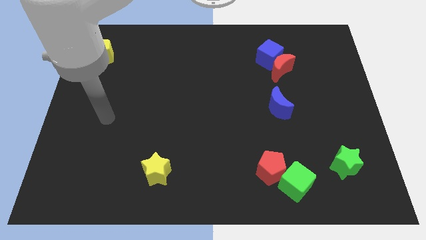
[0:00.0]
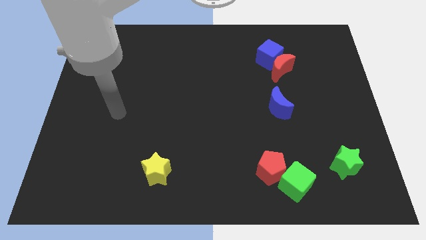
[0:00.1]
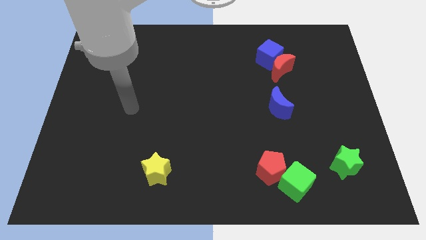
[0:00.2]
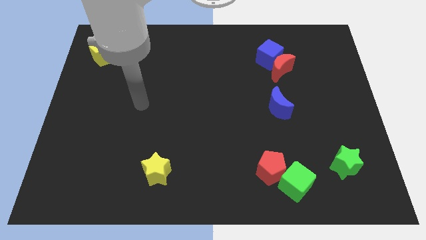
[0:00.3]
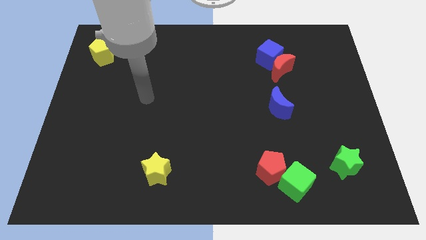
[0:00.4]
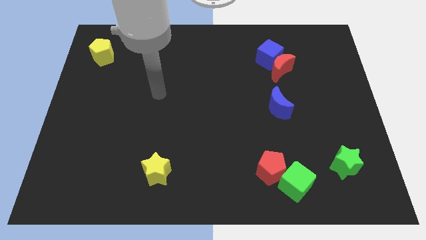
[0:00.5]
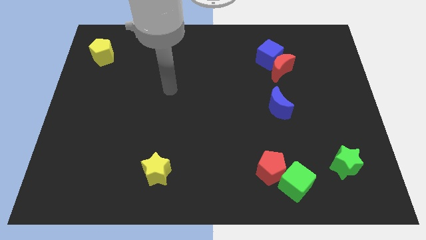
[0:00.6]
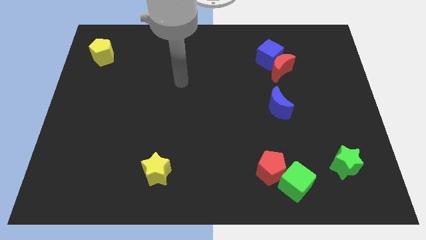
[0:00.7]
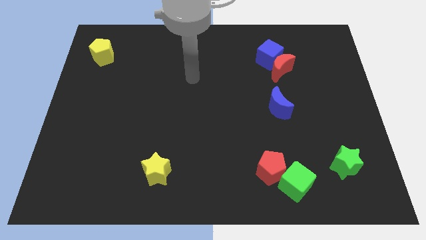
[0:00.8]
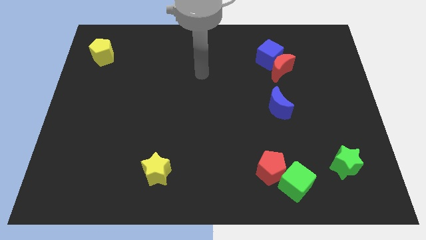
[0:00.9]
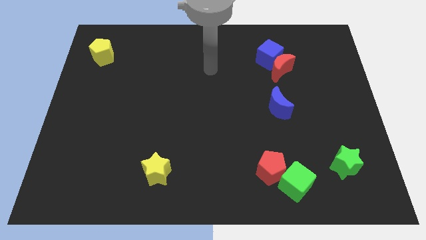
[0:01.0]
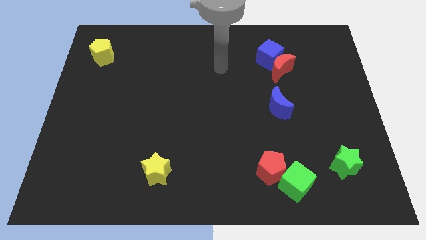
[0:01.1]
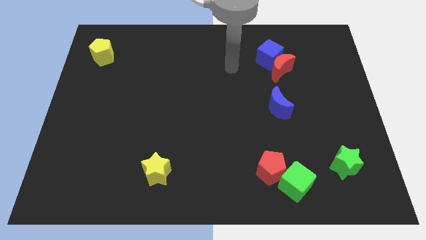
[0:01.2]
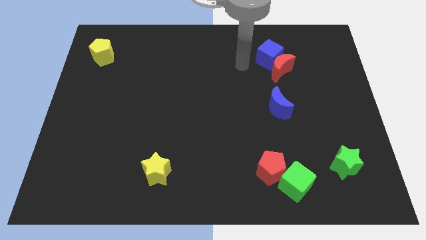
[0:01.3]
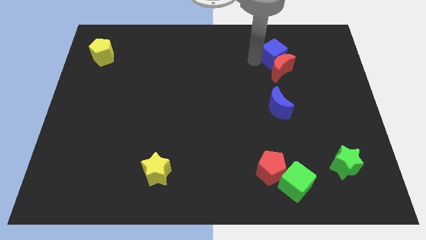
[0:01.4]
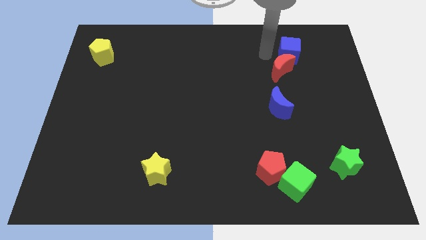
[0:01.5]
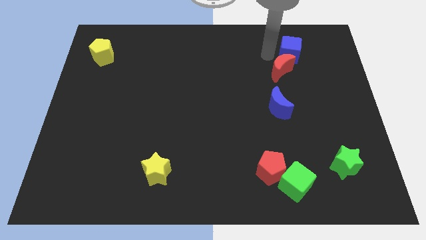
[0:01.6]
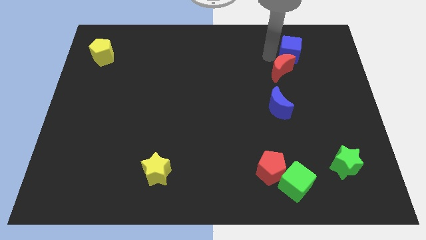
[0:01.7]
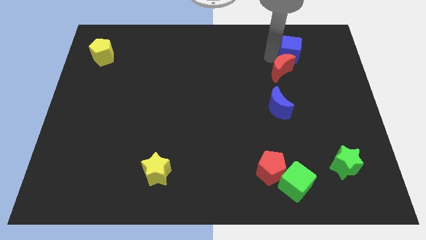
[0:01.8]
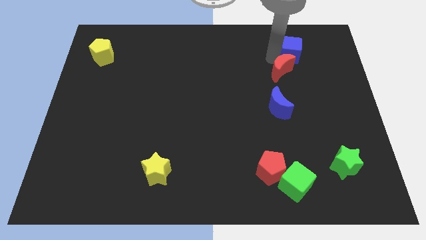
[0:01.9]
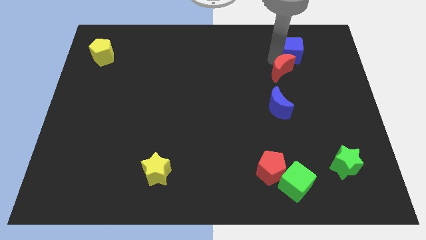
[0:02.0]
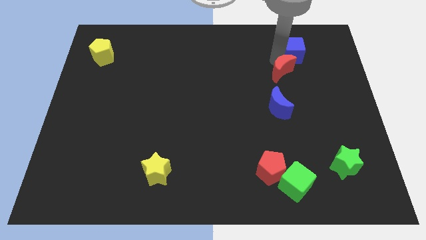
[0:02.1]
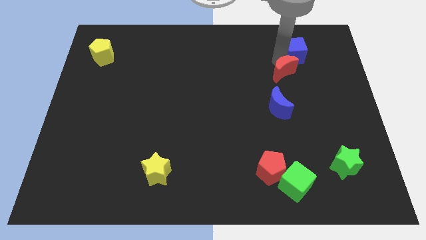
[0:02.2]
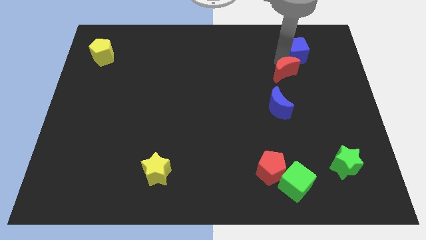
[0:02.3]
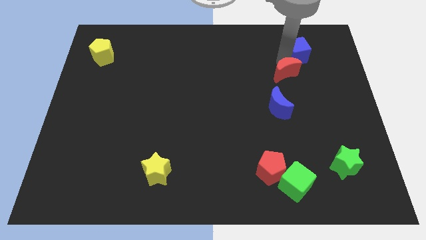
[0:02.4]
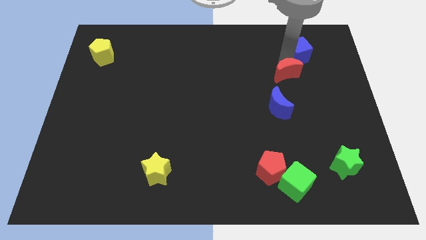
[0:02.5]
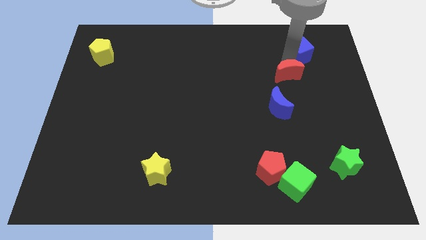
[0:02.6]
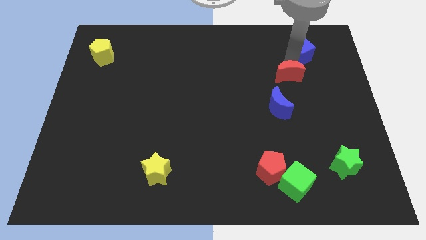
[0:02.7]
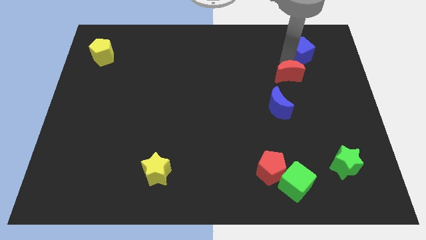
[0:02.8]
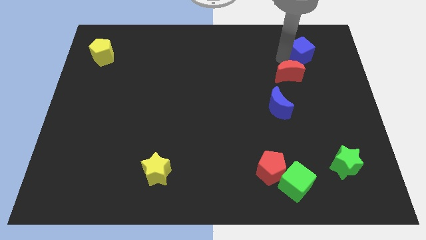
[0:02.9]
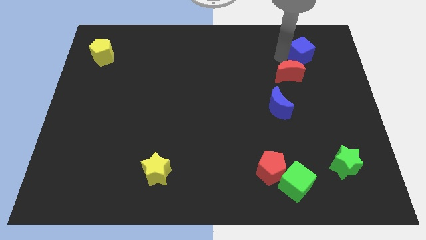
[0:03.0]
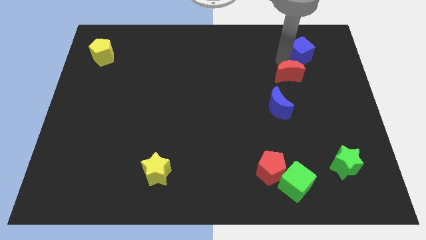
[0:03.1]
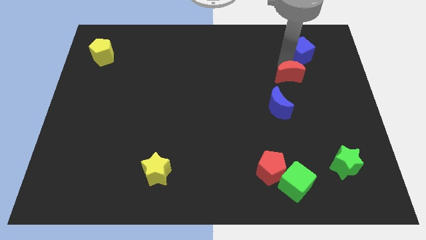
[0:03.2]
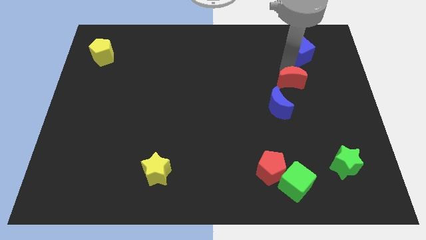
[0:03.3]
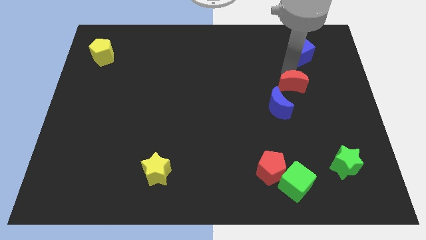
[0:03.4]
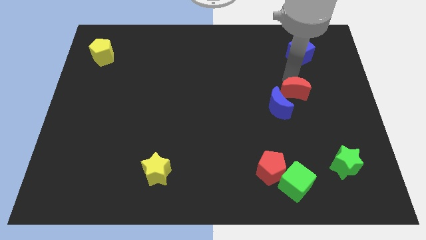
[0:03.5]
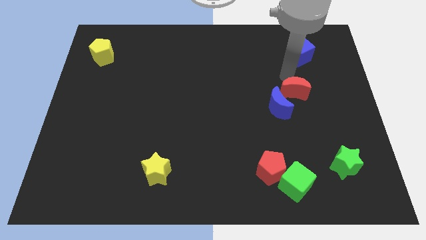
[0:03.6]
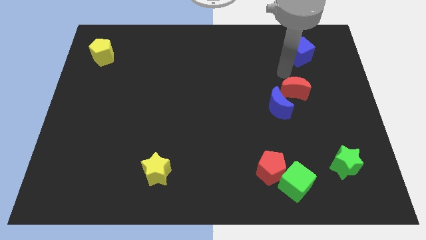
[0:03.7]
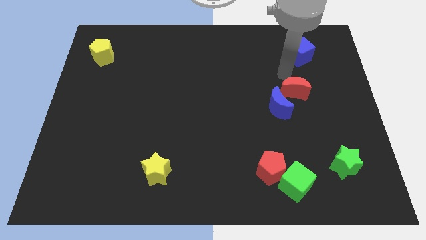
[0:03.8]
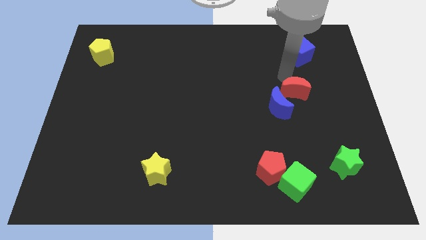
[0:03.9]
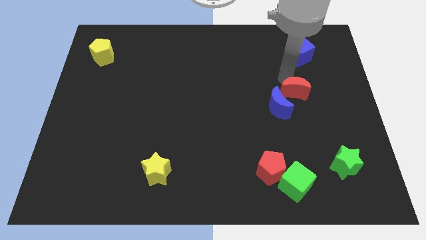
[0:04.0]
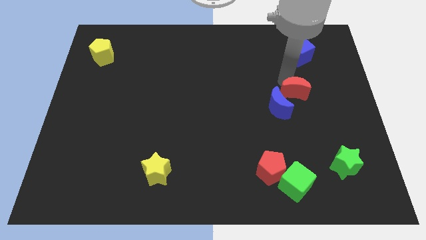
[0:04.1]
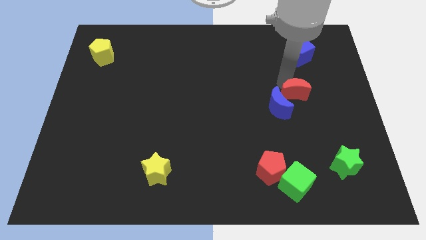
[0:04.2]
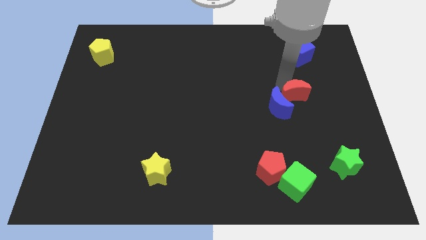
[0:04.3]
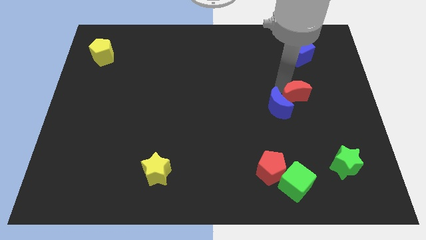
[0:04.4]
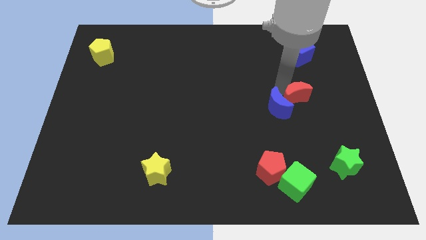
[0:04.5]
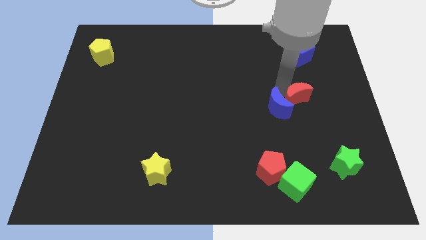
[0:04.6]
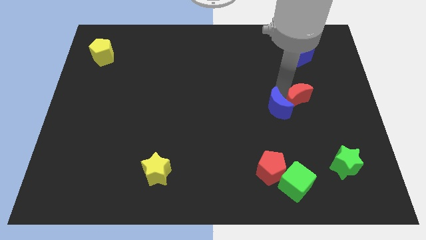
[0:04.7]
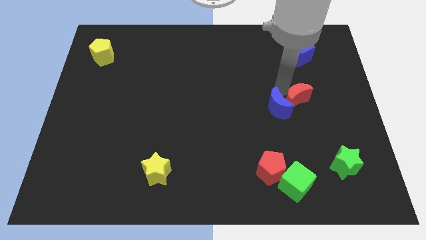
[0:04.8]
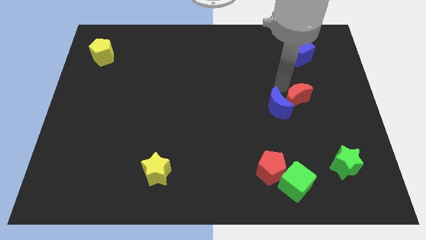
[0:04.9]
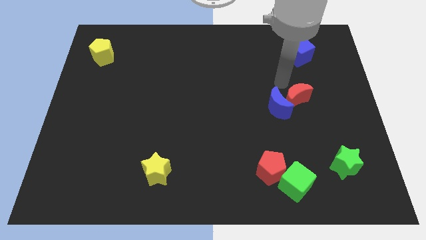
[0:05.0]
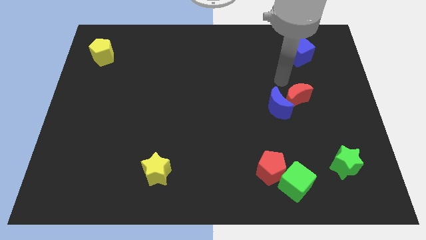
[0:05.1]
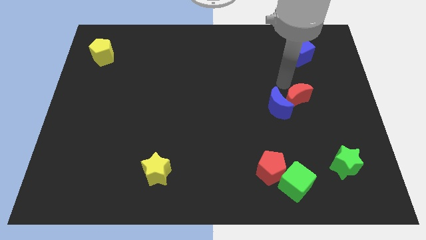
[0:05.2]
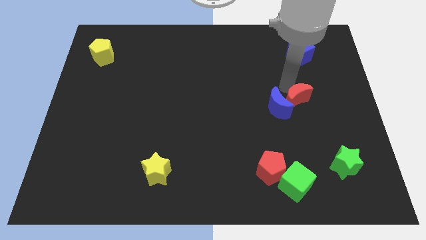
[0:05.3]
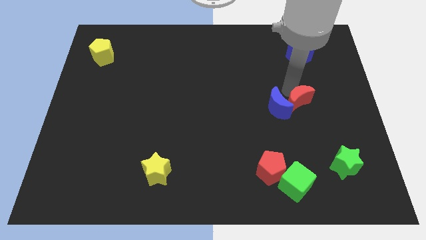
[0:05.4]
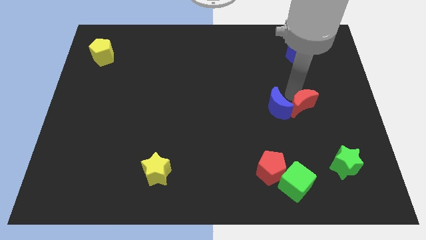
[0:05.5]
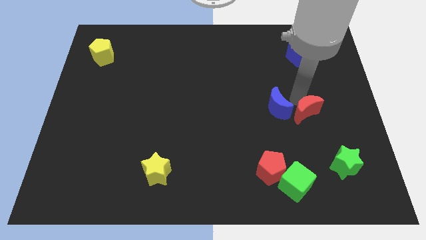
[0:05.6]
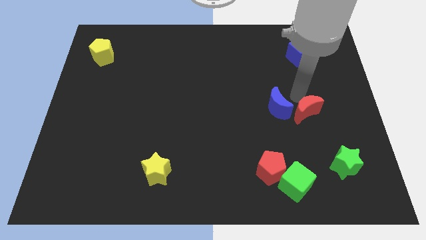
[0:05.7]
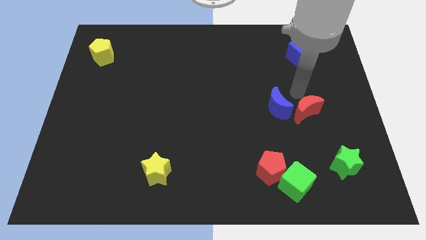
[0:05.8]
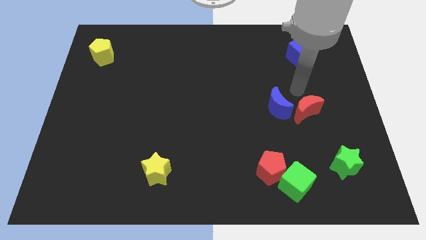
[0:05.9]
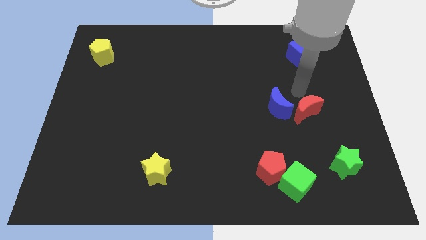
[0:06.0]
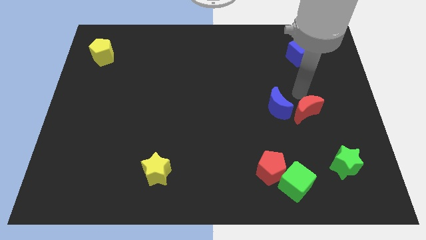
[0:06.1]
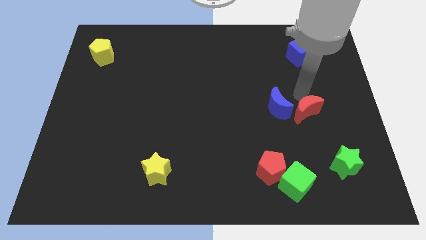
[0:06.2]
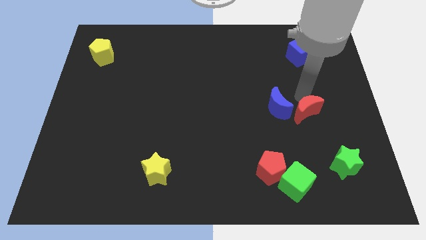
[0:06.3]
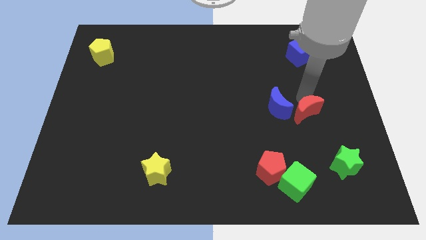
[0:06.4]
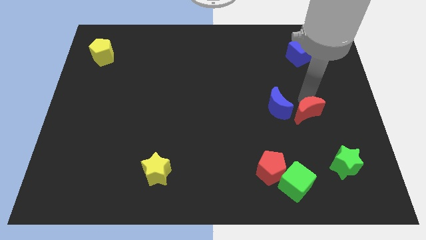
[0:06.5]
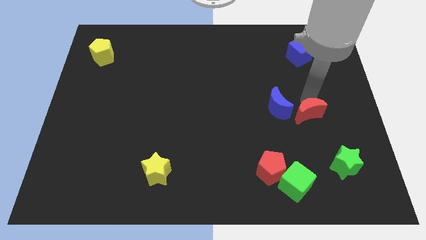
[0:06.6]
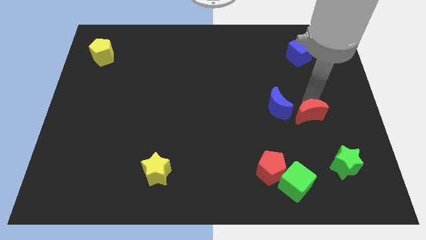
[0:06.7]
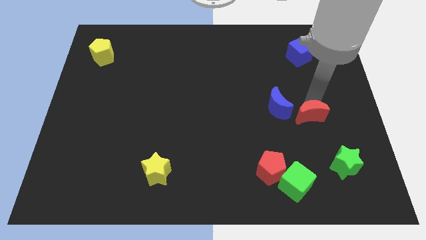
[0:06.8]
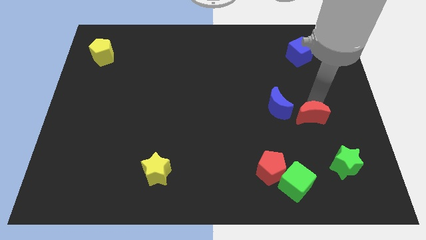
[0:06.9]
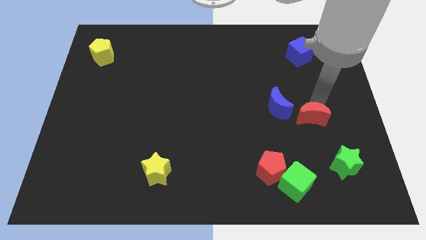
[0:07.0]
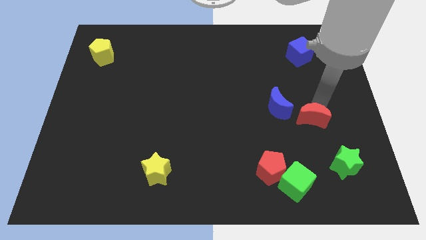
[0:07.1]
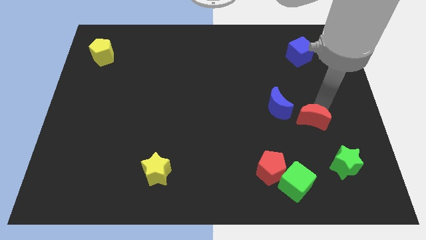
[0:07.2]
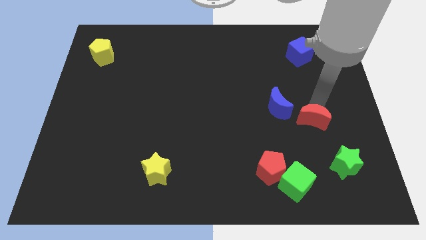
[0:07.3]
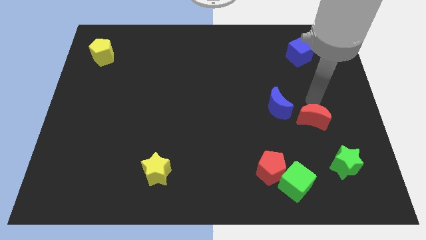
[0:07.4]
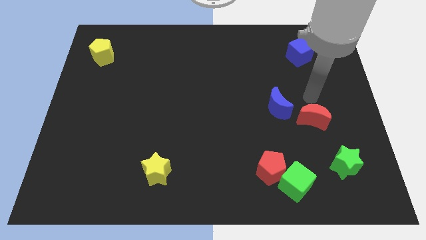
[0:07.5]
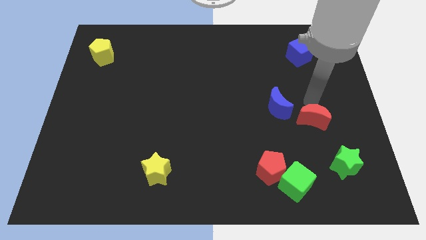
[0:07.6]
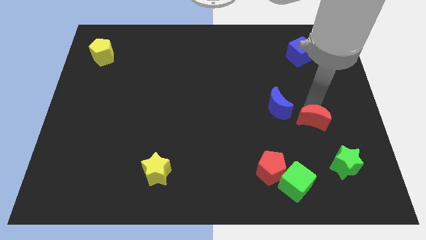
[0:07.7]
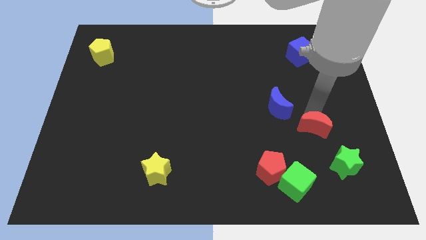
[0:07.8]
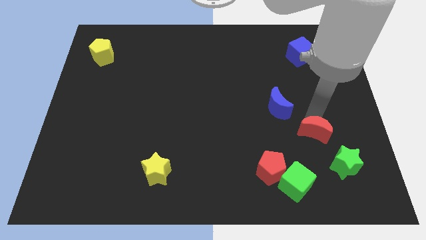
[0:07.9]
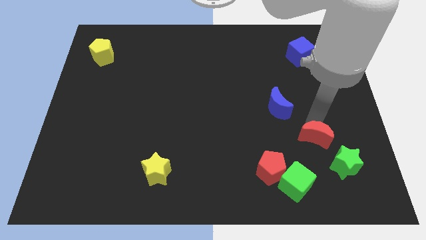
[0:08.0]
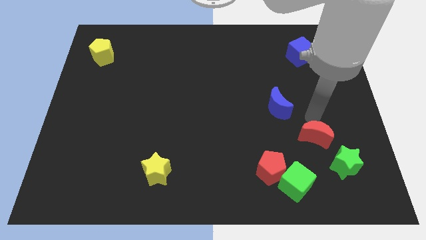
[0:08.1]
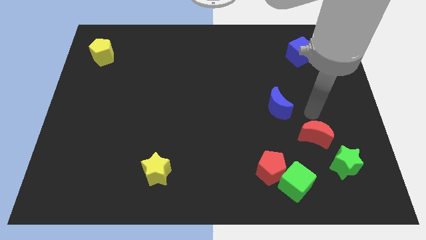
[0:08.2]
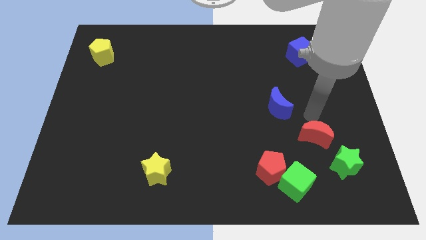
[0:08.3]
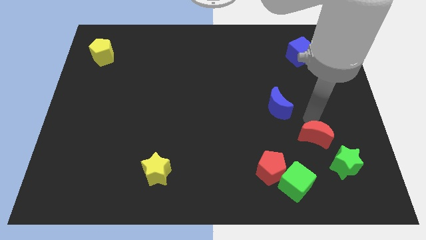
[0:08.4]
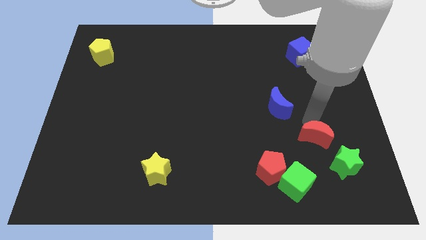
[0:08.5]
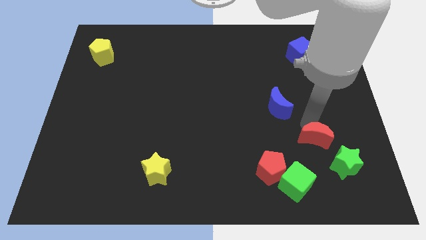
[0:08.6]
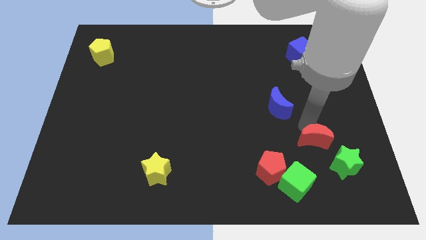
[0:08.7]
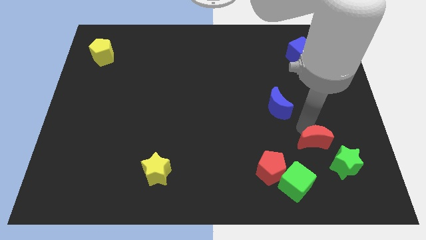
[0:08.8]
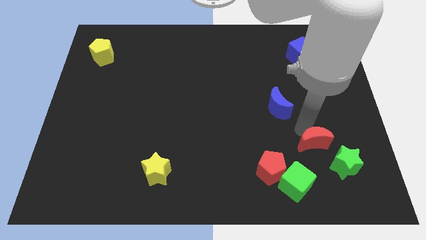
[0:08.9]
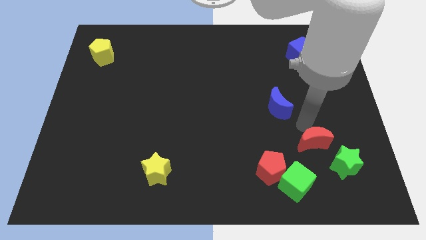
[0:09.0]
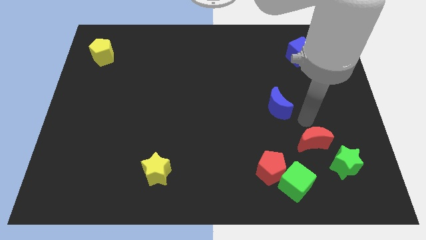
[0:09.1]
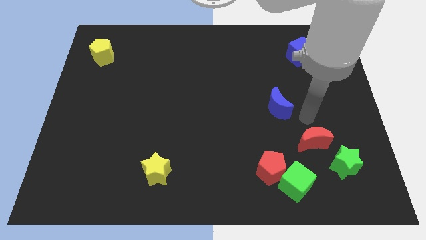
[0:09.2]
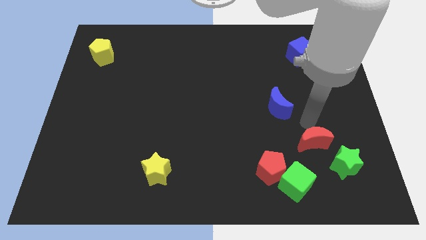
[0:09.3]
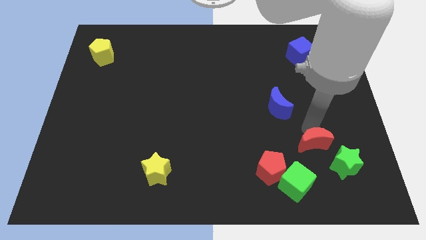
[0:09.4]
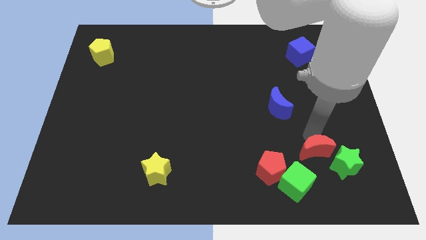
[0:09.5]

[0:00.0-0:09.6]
slide the red moon right of the red pentagon
